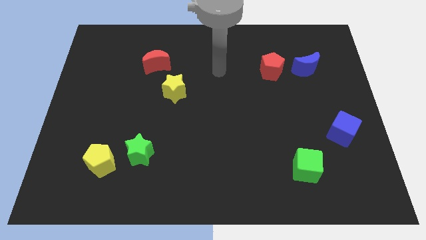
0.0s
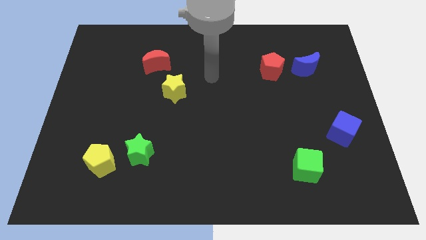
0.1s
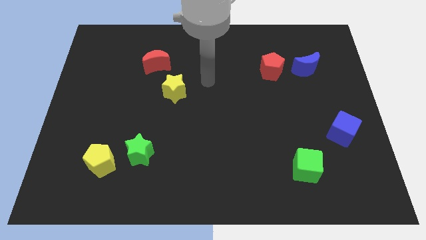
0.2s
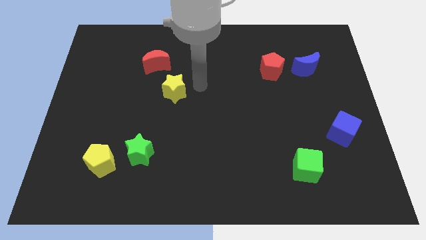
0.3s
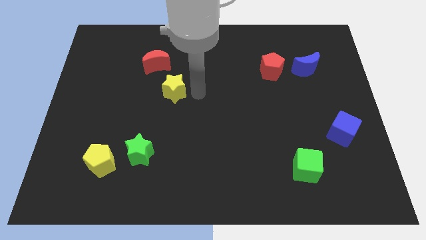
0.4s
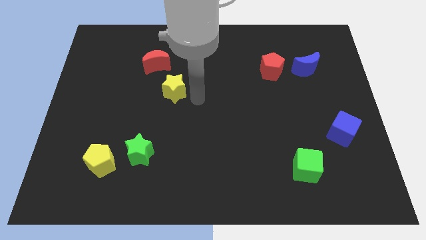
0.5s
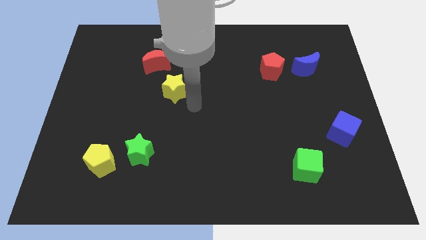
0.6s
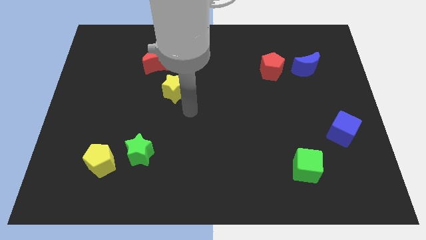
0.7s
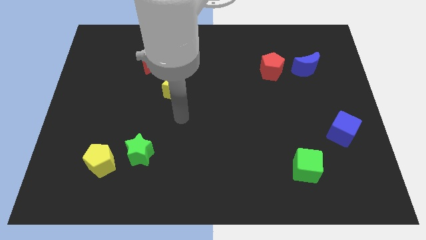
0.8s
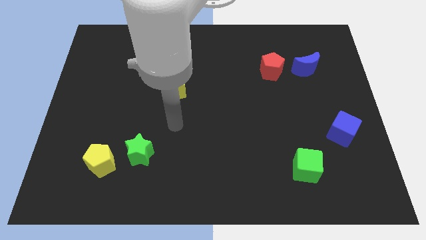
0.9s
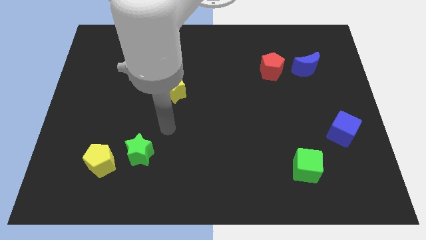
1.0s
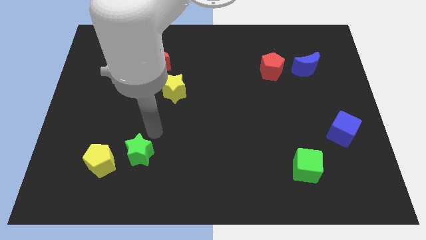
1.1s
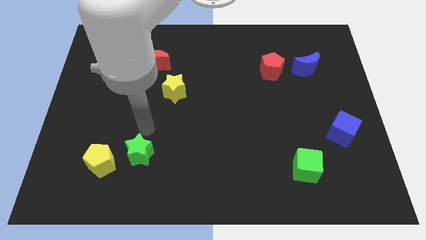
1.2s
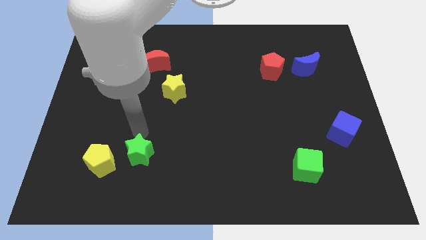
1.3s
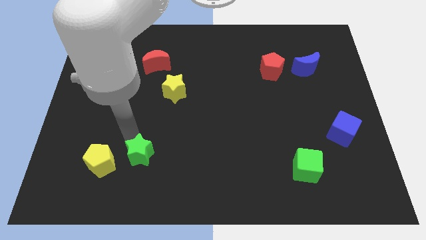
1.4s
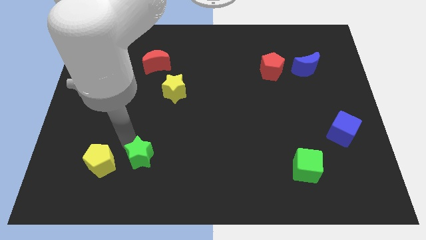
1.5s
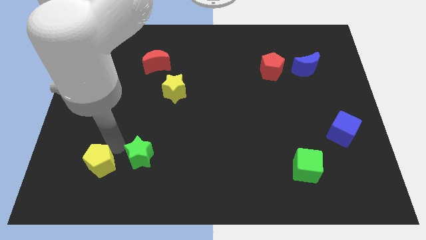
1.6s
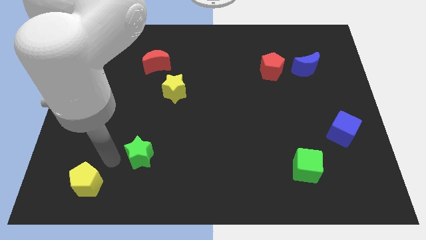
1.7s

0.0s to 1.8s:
move the green star away from the yellow pentagon

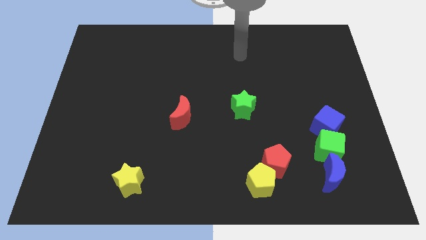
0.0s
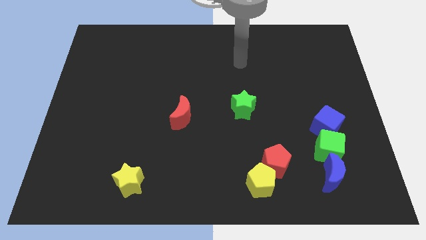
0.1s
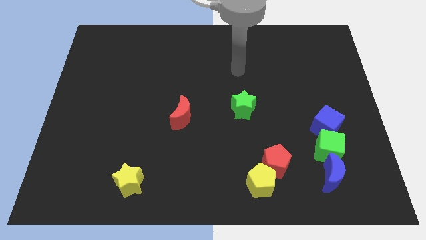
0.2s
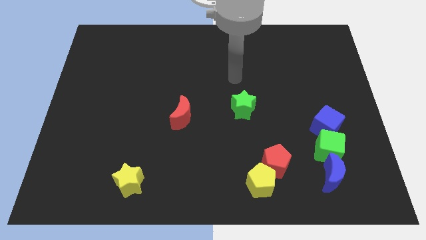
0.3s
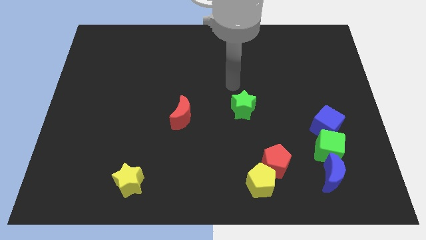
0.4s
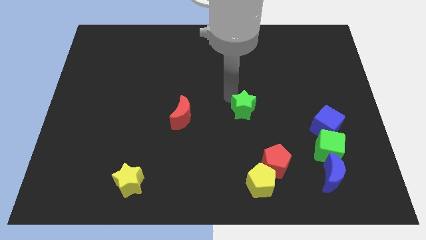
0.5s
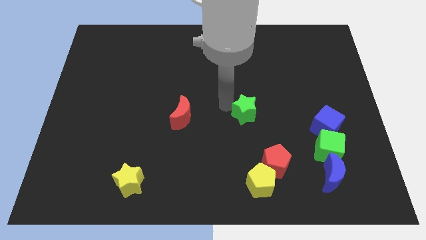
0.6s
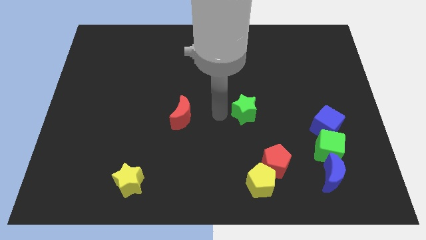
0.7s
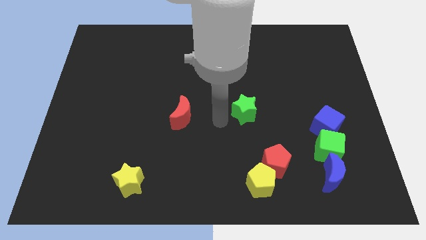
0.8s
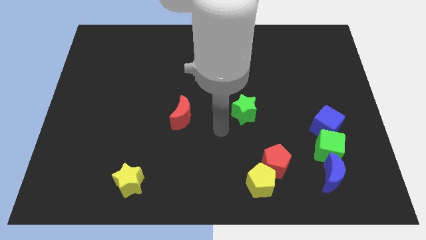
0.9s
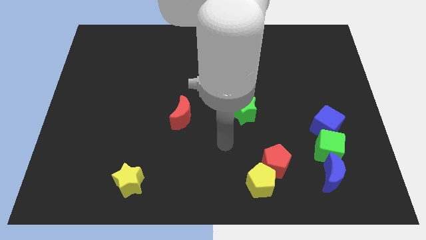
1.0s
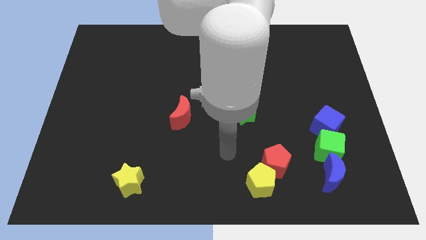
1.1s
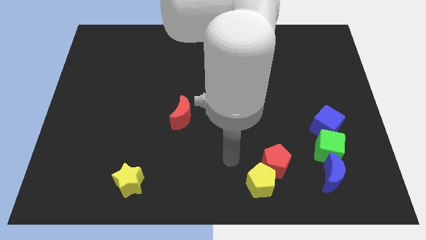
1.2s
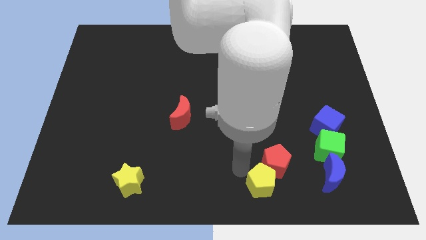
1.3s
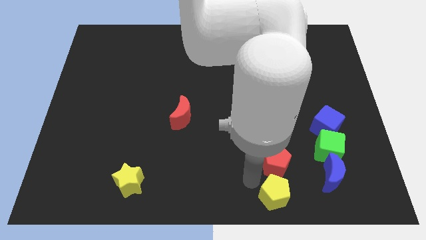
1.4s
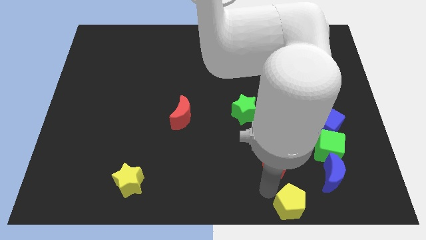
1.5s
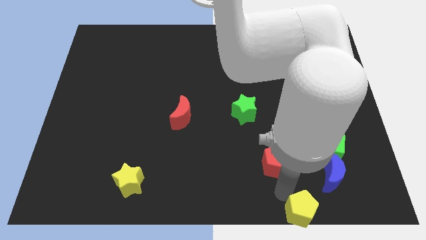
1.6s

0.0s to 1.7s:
pull the red pentagon apart from the yellow pentagon

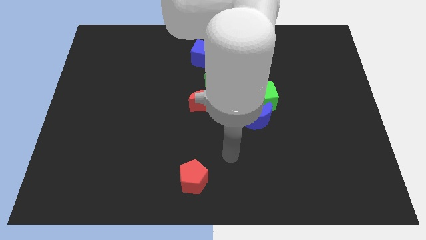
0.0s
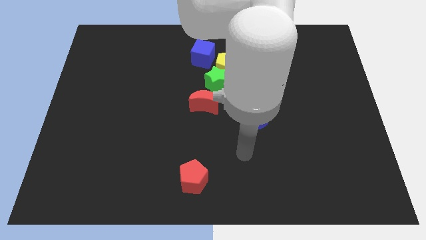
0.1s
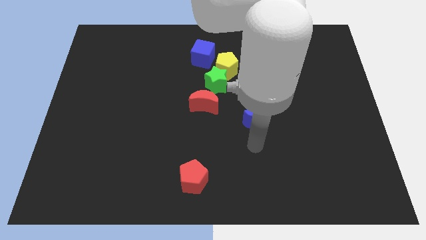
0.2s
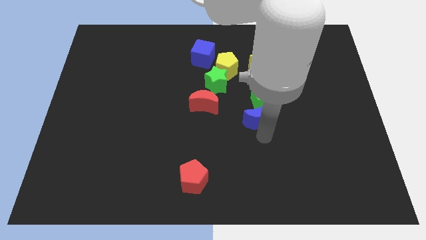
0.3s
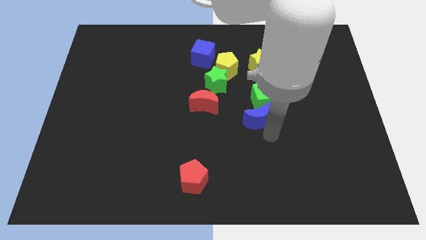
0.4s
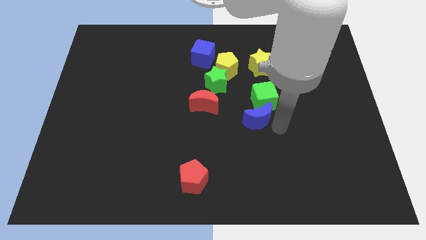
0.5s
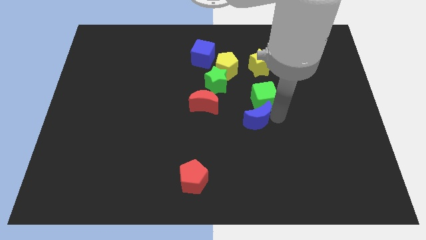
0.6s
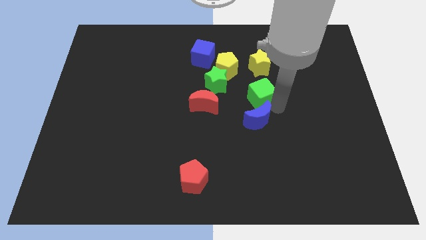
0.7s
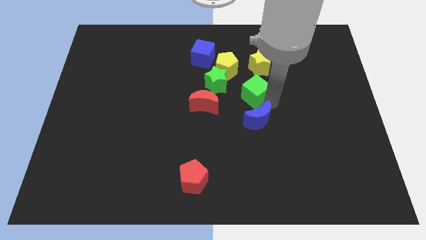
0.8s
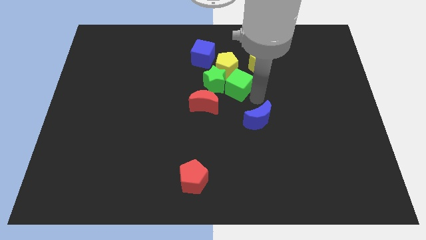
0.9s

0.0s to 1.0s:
move the blue moon away from the green cube

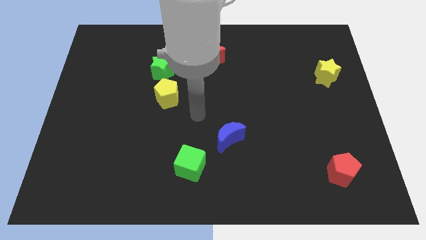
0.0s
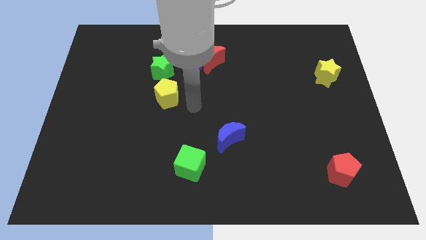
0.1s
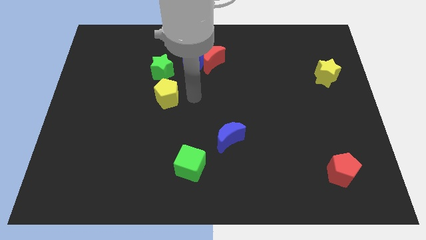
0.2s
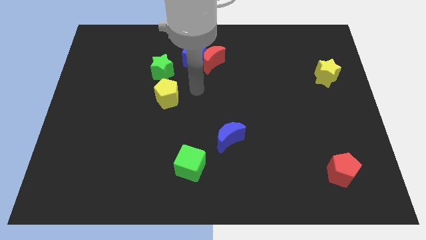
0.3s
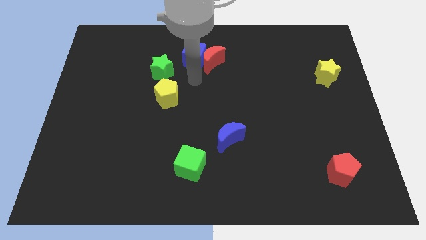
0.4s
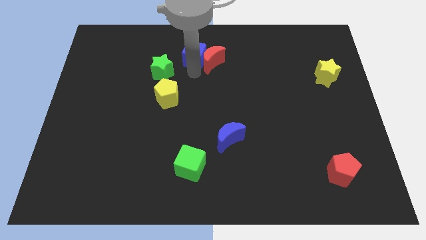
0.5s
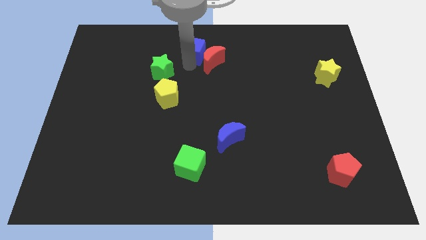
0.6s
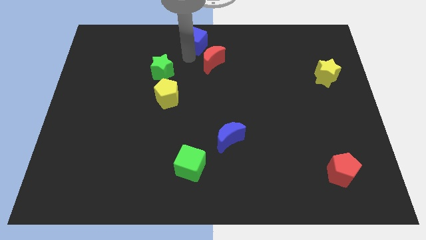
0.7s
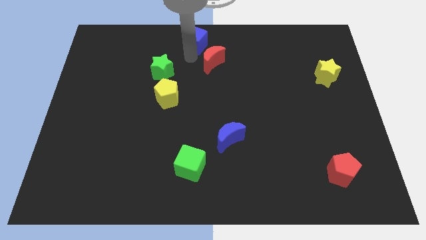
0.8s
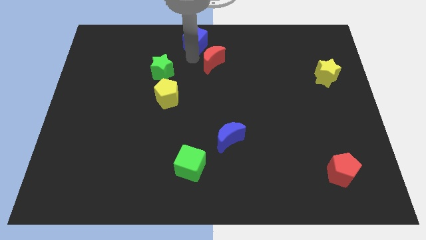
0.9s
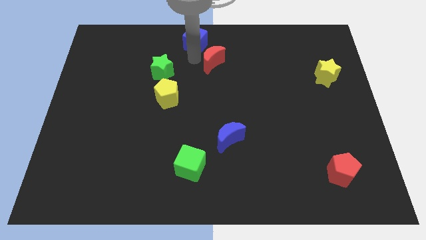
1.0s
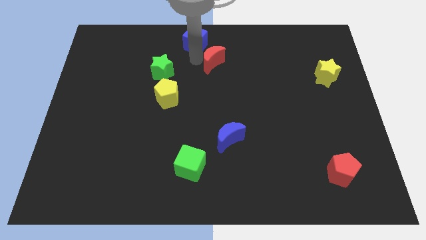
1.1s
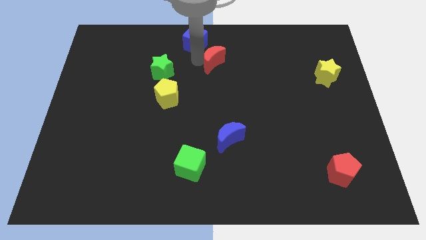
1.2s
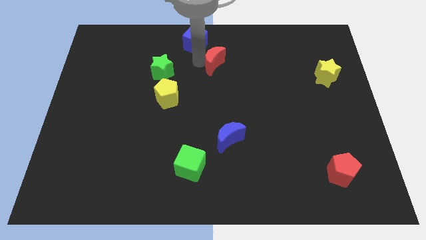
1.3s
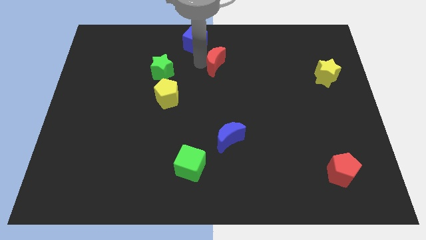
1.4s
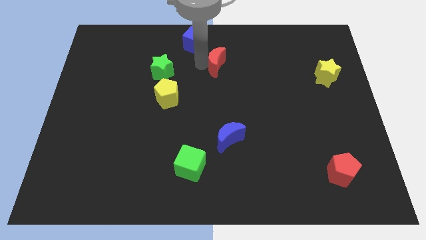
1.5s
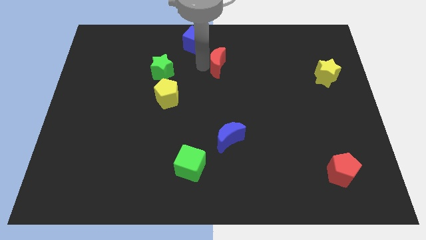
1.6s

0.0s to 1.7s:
move the red moon away from the blue cube

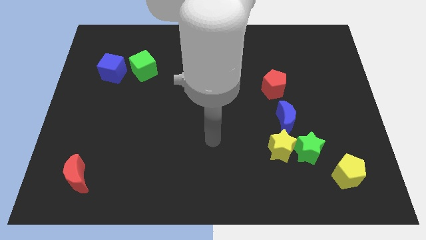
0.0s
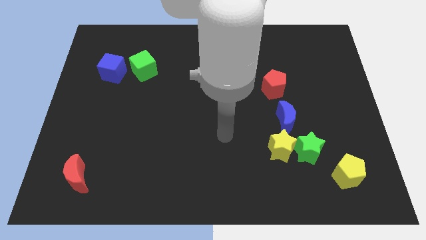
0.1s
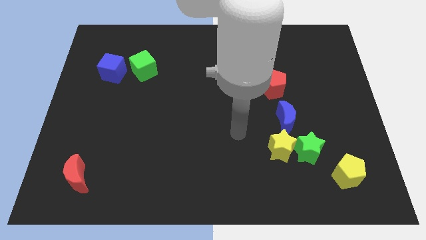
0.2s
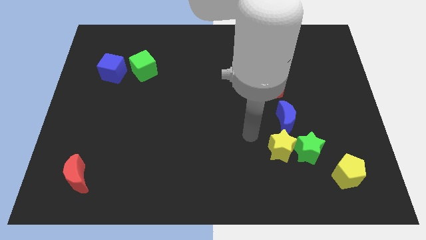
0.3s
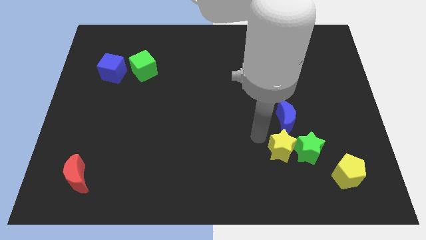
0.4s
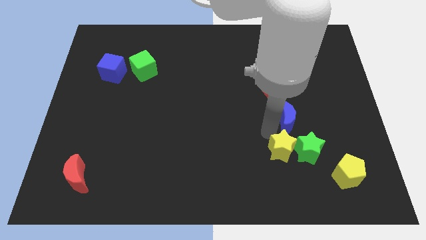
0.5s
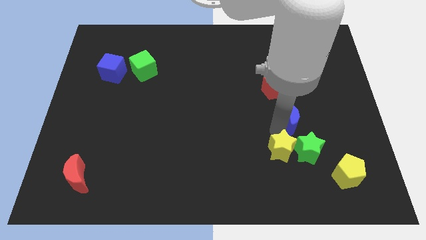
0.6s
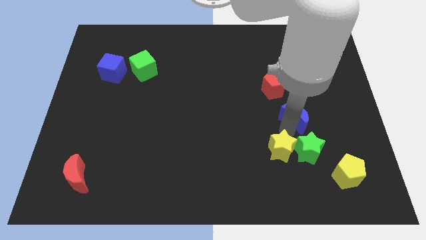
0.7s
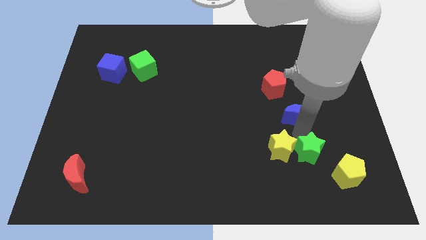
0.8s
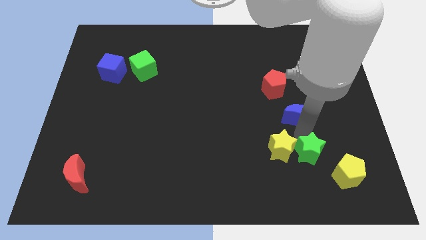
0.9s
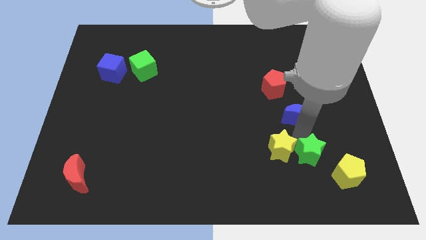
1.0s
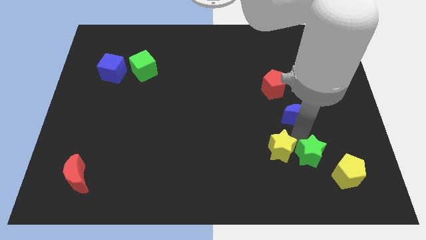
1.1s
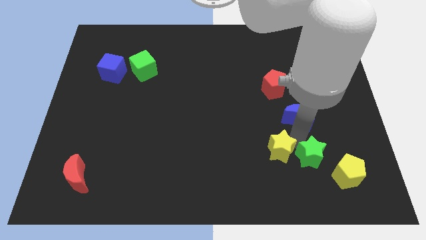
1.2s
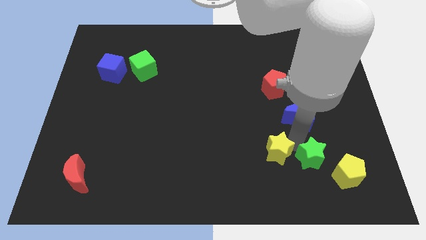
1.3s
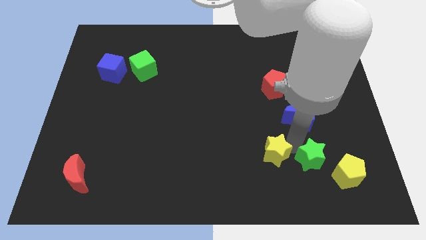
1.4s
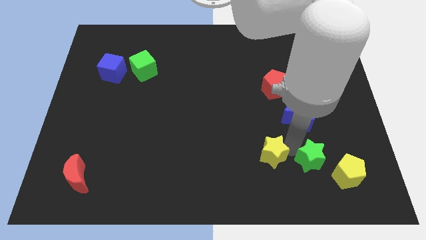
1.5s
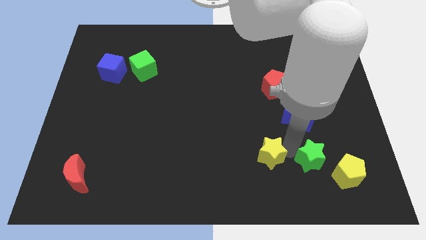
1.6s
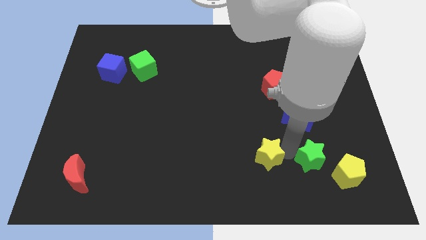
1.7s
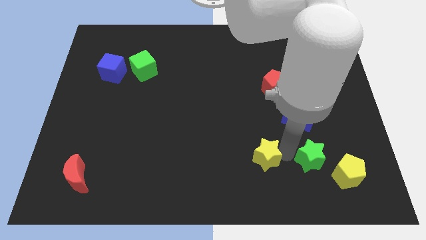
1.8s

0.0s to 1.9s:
move the yellow star away from the green star and blue moon

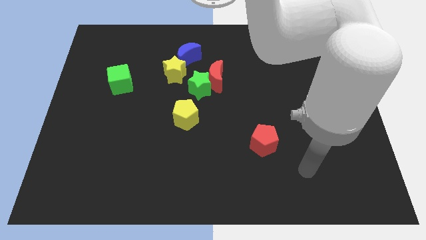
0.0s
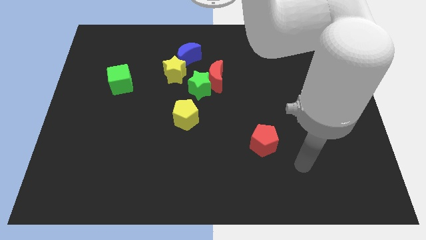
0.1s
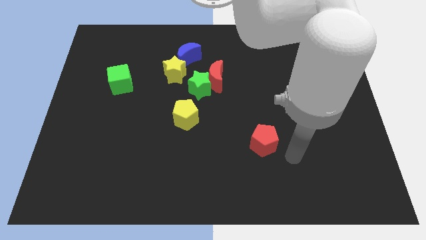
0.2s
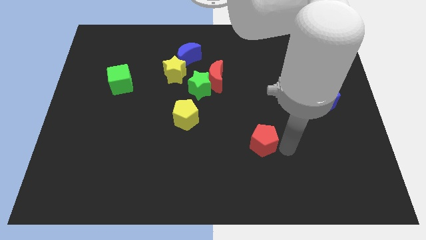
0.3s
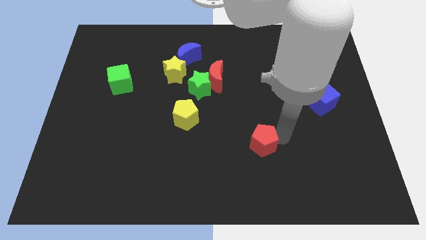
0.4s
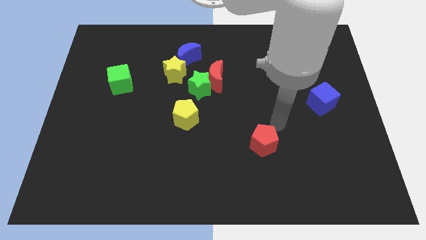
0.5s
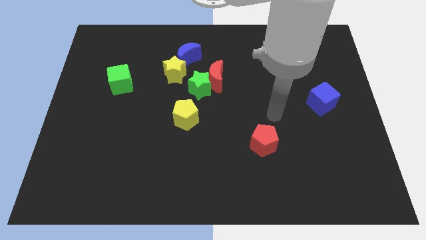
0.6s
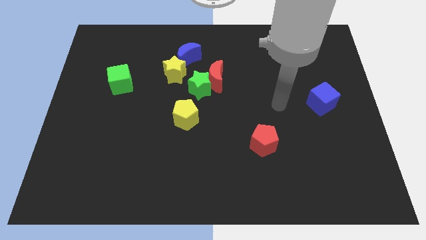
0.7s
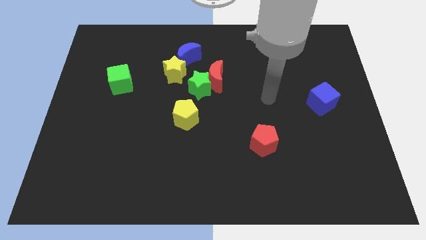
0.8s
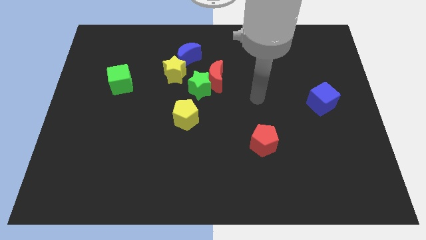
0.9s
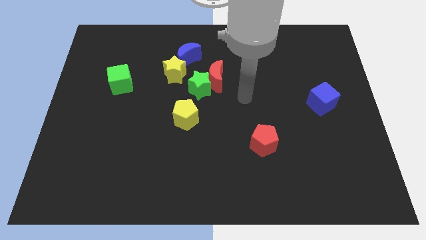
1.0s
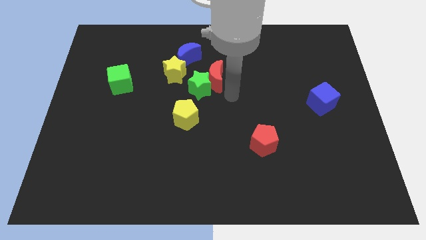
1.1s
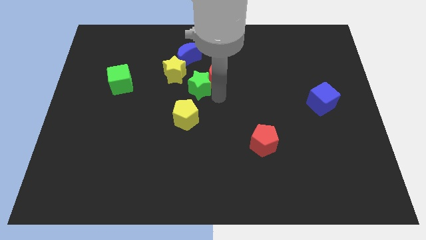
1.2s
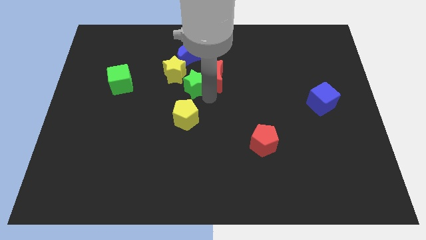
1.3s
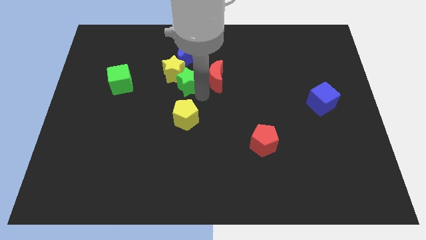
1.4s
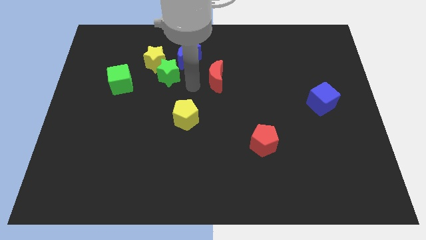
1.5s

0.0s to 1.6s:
move the red moon away from the green star
